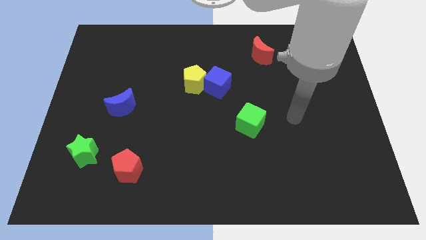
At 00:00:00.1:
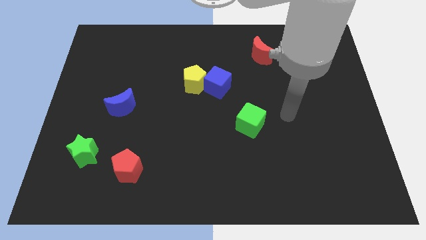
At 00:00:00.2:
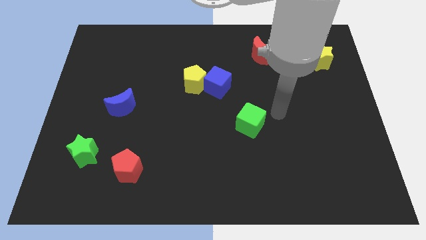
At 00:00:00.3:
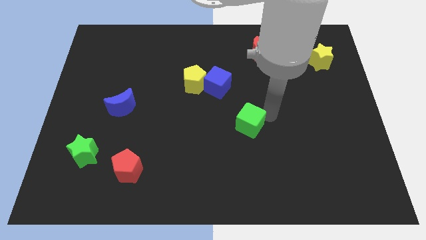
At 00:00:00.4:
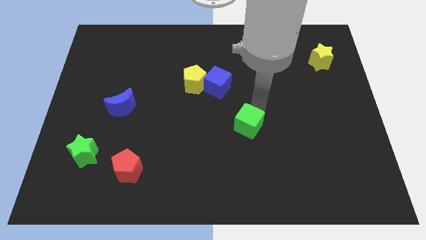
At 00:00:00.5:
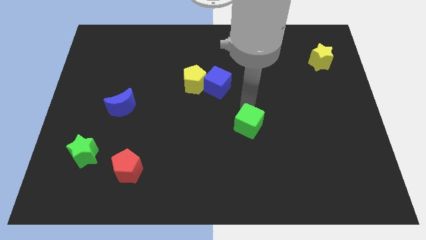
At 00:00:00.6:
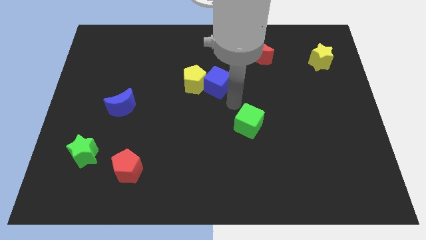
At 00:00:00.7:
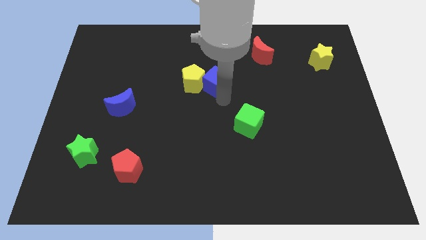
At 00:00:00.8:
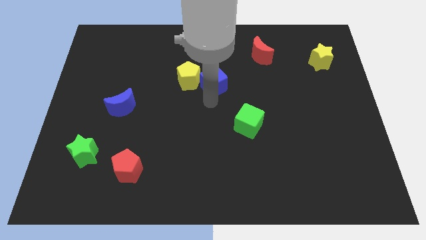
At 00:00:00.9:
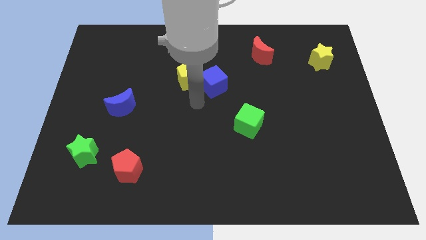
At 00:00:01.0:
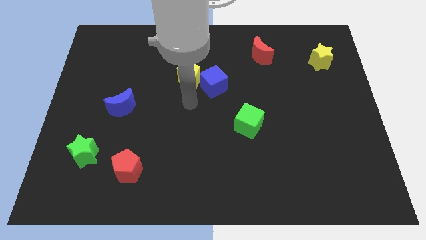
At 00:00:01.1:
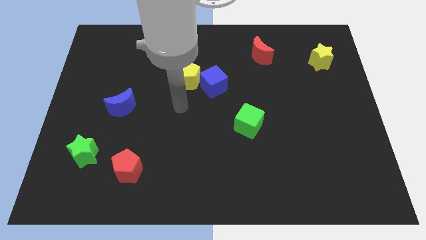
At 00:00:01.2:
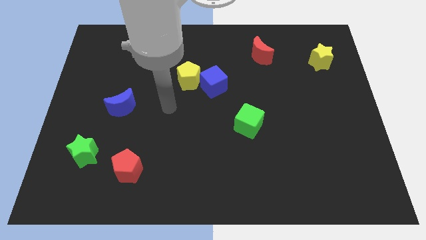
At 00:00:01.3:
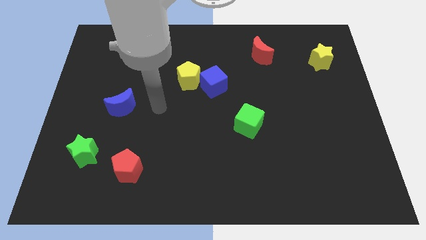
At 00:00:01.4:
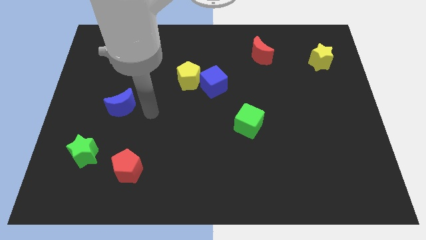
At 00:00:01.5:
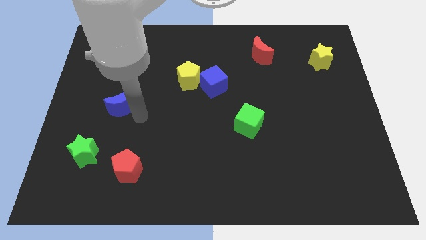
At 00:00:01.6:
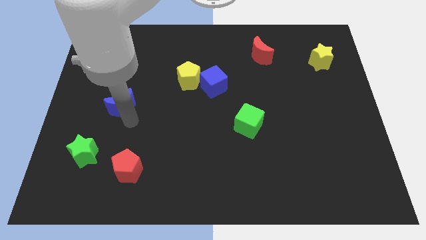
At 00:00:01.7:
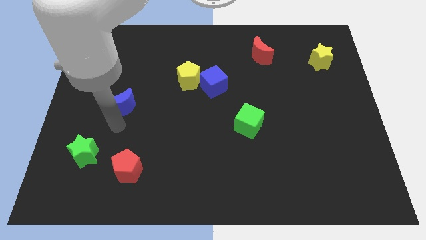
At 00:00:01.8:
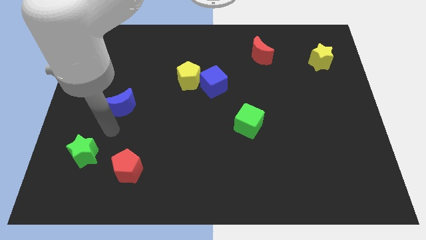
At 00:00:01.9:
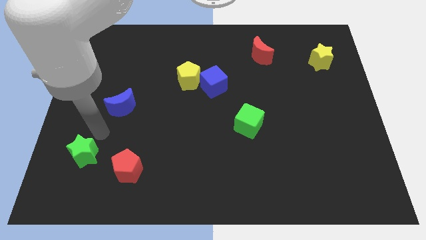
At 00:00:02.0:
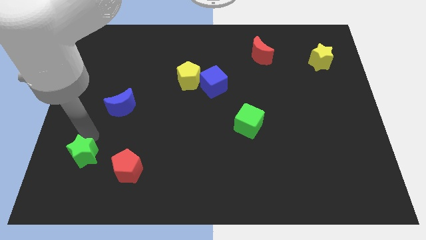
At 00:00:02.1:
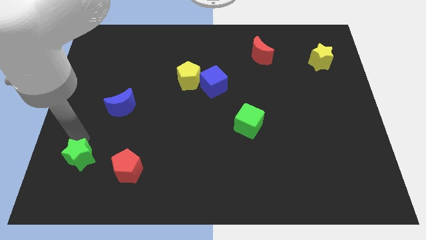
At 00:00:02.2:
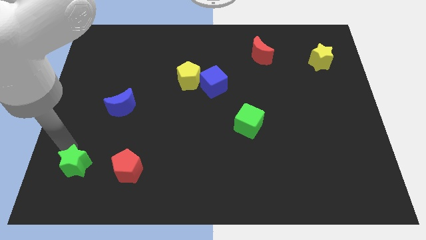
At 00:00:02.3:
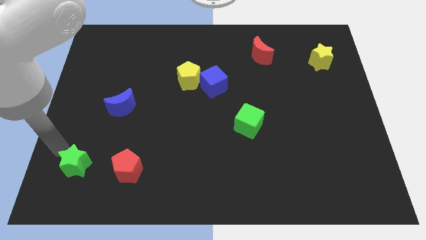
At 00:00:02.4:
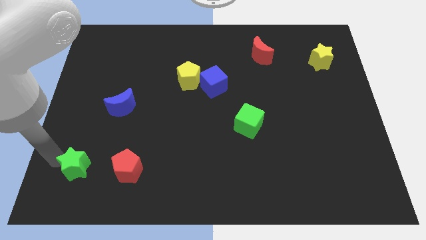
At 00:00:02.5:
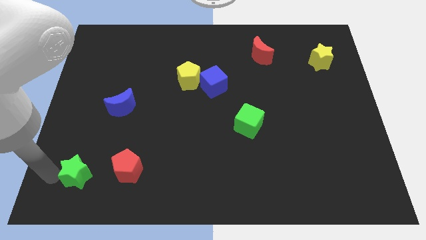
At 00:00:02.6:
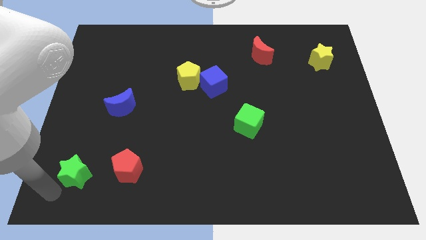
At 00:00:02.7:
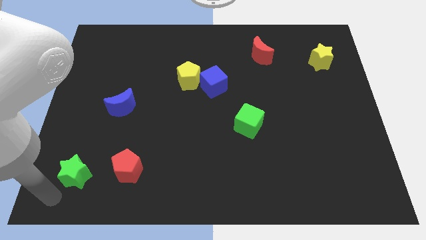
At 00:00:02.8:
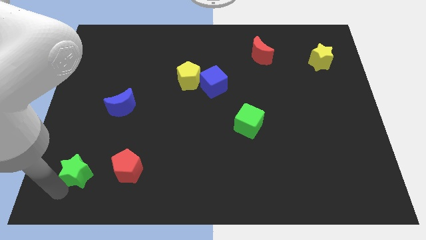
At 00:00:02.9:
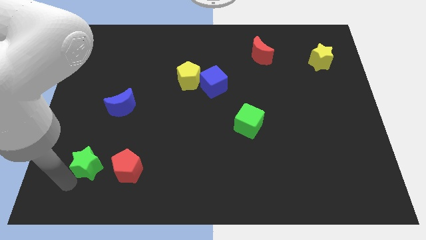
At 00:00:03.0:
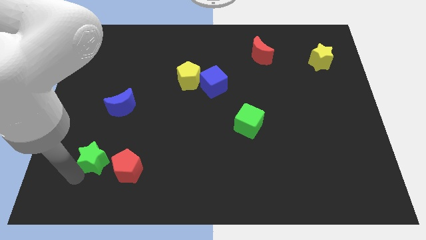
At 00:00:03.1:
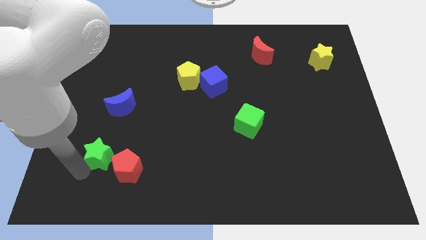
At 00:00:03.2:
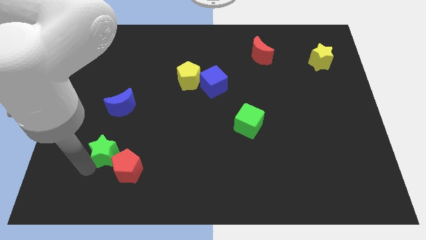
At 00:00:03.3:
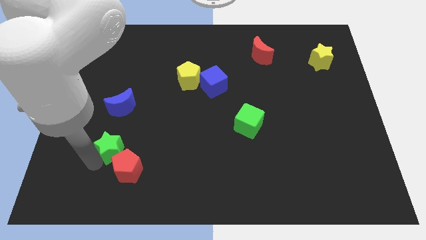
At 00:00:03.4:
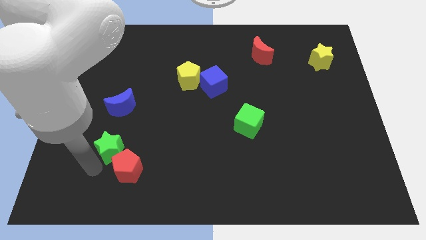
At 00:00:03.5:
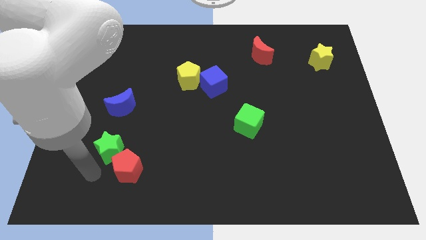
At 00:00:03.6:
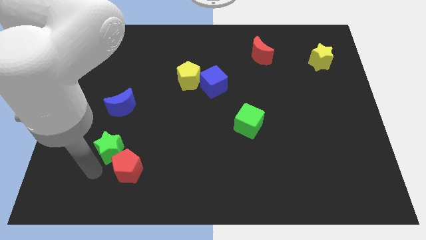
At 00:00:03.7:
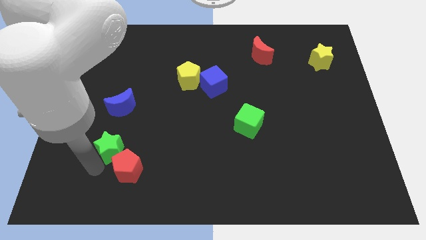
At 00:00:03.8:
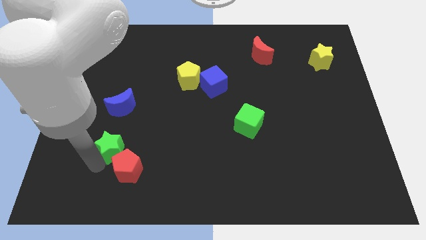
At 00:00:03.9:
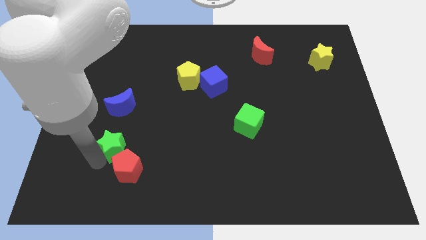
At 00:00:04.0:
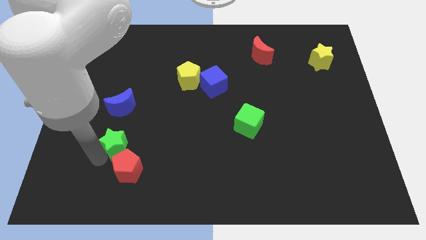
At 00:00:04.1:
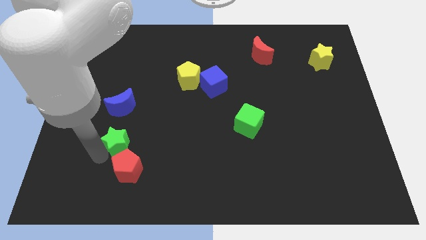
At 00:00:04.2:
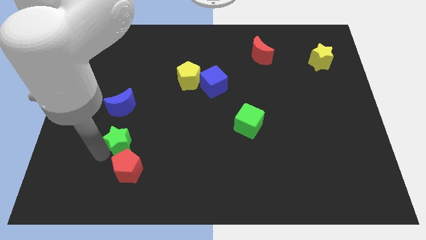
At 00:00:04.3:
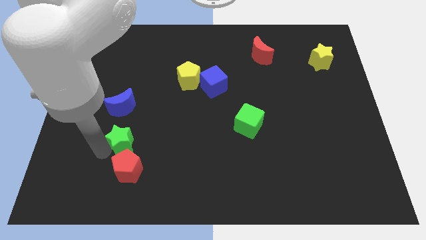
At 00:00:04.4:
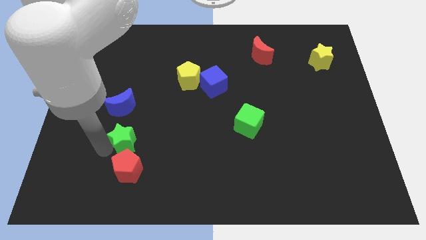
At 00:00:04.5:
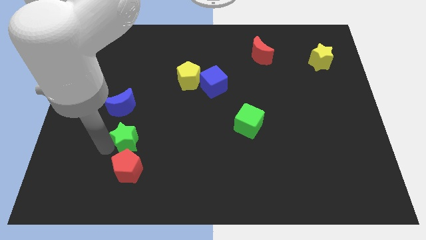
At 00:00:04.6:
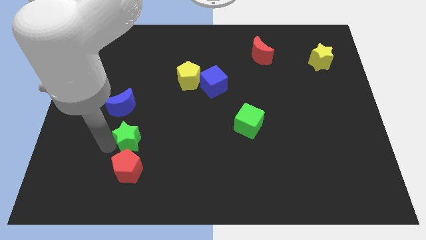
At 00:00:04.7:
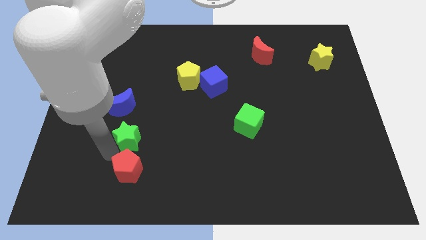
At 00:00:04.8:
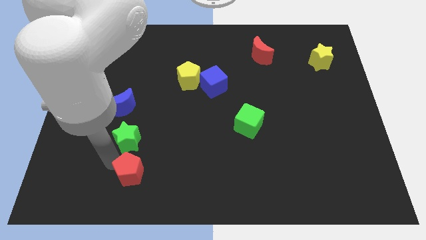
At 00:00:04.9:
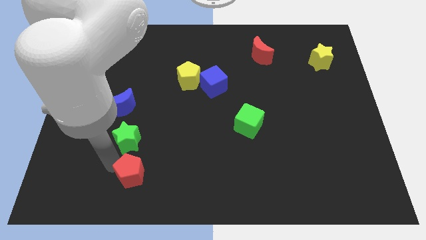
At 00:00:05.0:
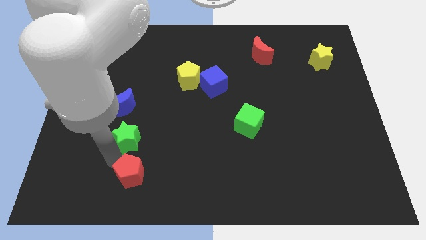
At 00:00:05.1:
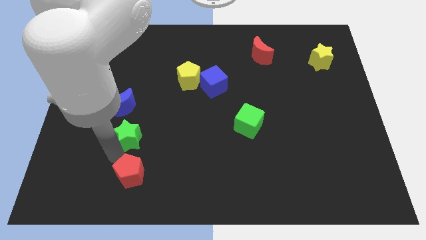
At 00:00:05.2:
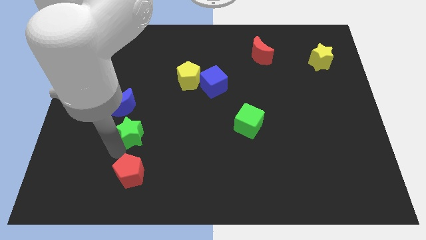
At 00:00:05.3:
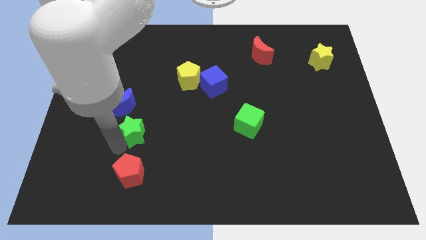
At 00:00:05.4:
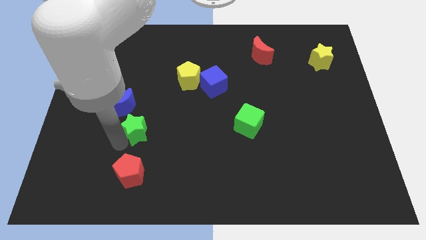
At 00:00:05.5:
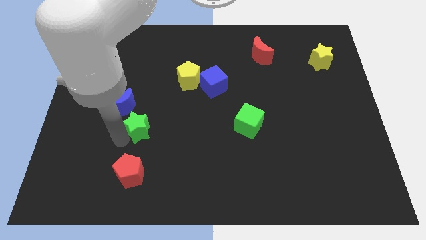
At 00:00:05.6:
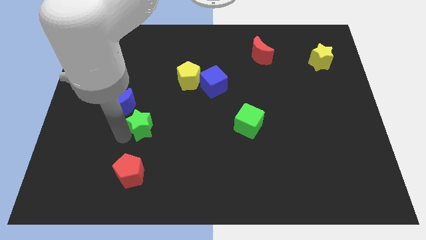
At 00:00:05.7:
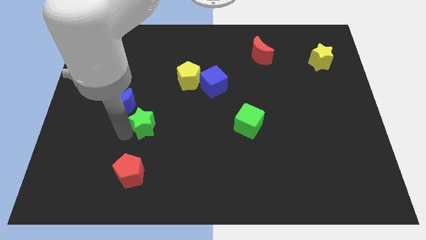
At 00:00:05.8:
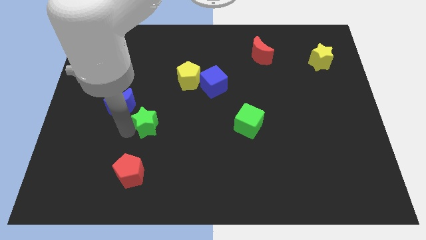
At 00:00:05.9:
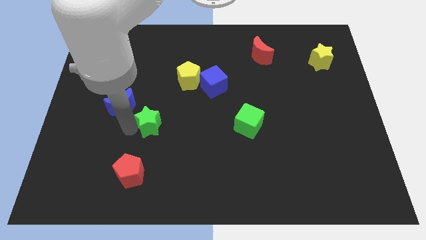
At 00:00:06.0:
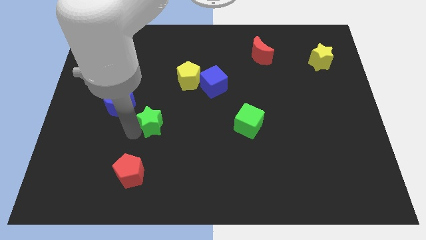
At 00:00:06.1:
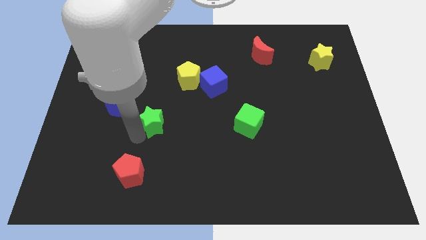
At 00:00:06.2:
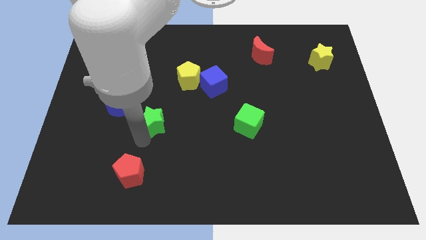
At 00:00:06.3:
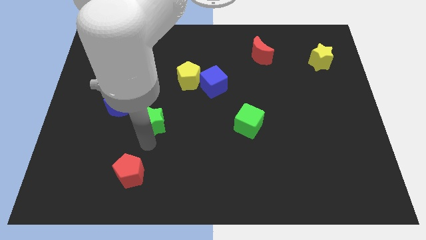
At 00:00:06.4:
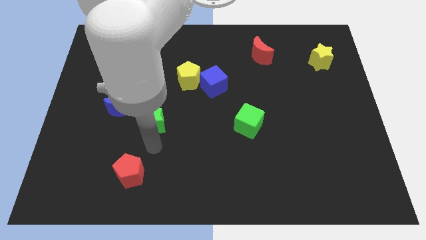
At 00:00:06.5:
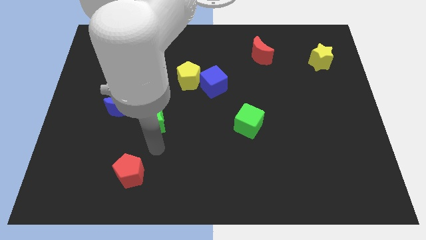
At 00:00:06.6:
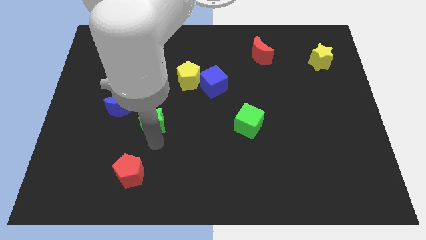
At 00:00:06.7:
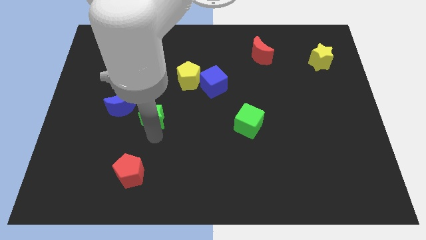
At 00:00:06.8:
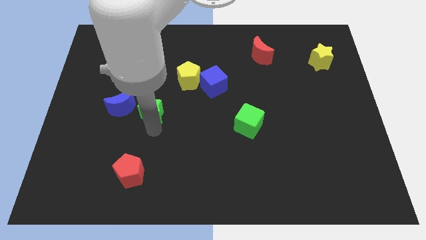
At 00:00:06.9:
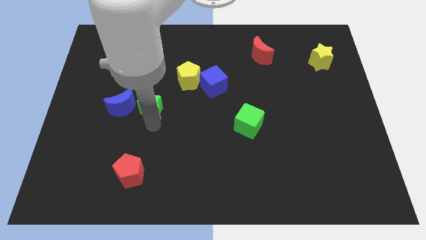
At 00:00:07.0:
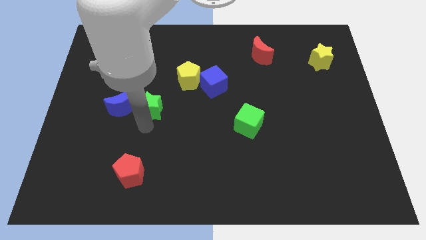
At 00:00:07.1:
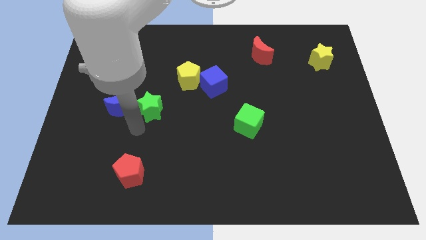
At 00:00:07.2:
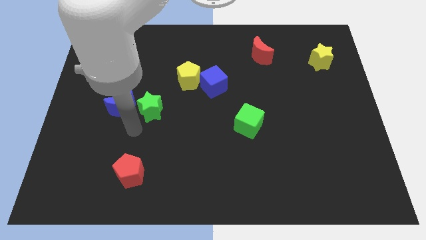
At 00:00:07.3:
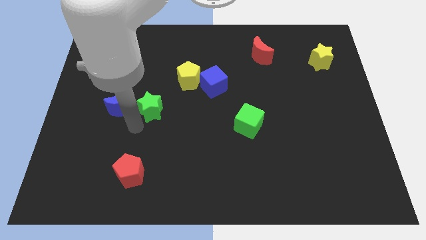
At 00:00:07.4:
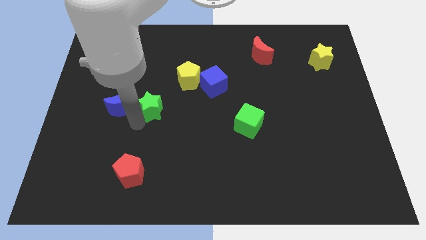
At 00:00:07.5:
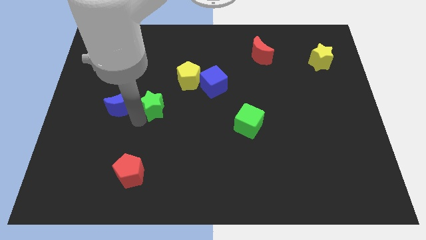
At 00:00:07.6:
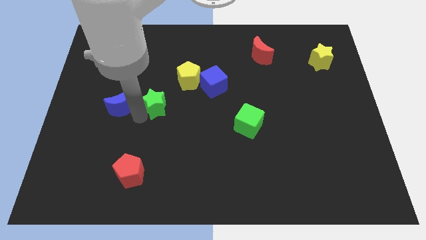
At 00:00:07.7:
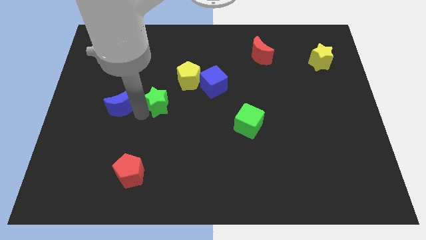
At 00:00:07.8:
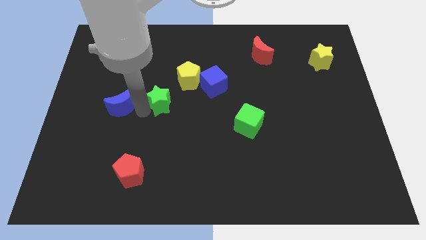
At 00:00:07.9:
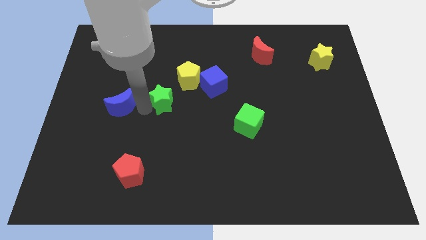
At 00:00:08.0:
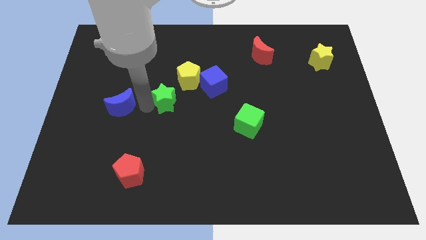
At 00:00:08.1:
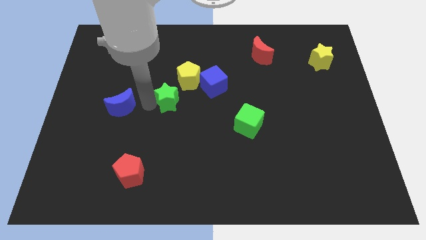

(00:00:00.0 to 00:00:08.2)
push the green star to the left of the blue cube
